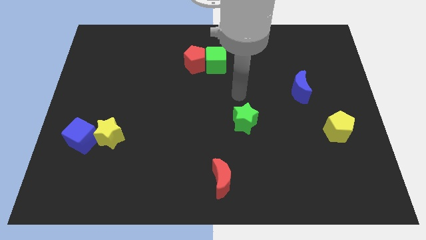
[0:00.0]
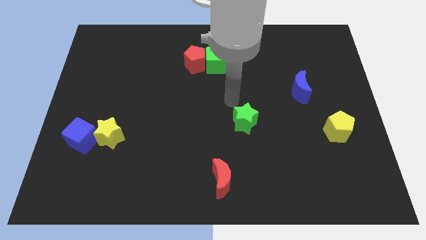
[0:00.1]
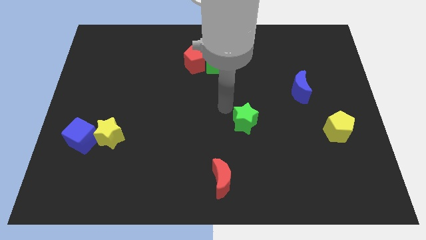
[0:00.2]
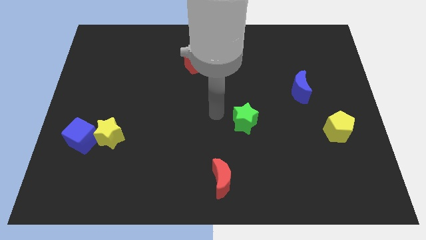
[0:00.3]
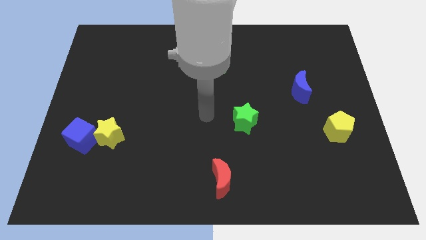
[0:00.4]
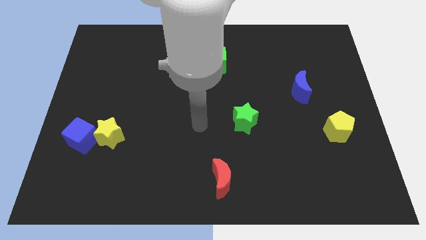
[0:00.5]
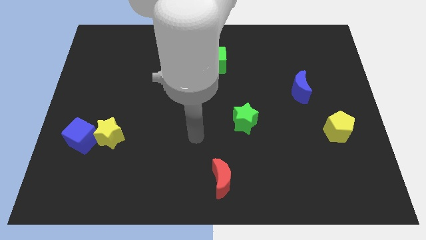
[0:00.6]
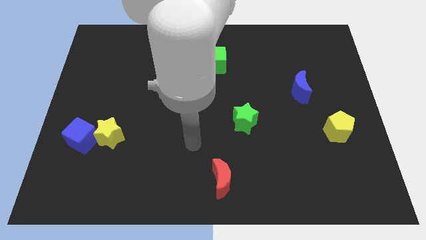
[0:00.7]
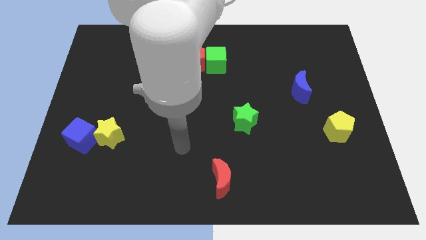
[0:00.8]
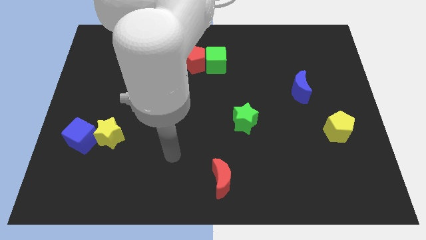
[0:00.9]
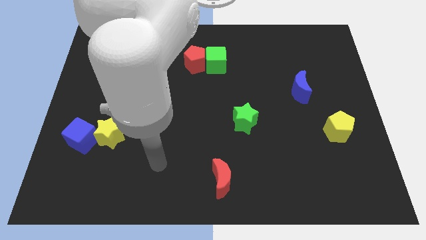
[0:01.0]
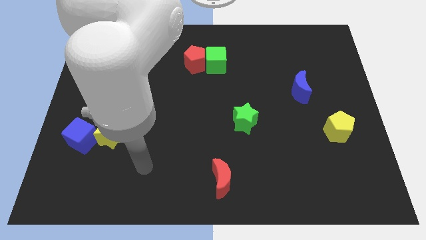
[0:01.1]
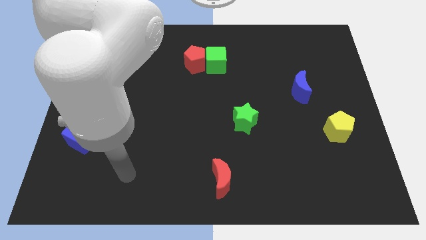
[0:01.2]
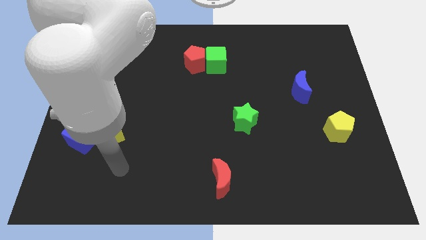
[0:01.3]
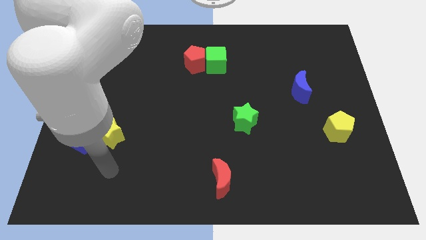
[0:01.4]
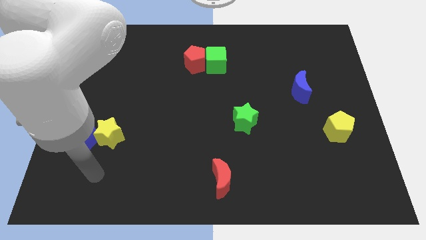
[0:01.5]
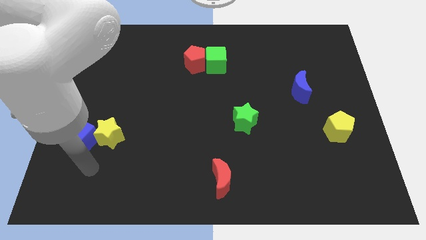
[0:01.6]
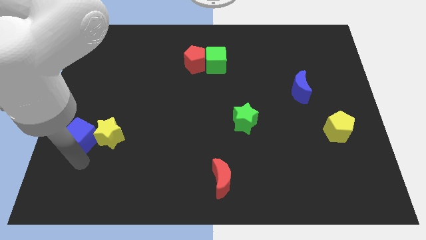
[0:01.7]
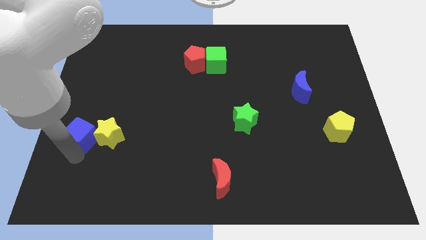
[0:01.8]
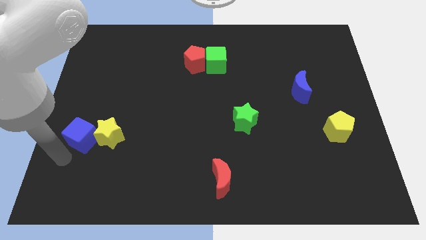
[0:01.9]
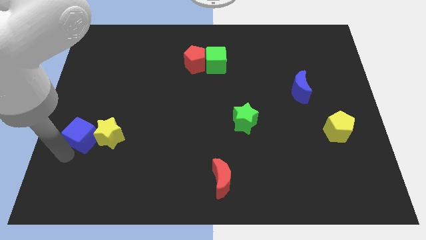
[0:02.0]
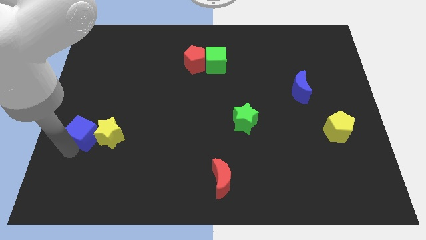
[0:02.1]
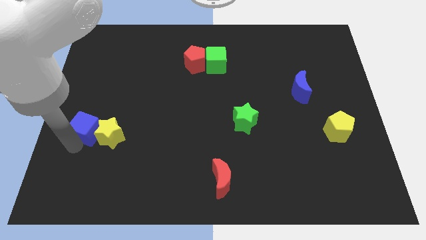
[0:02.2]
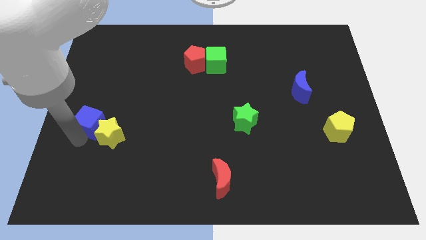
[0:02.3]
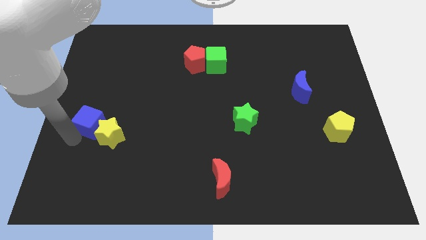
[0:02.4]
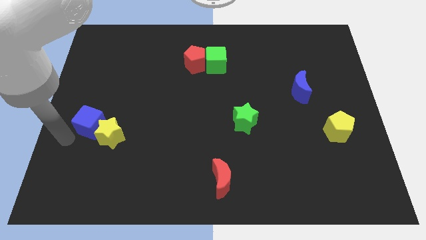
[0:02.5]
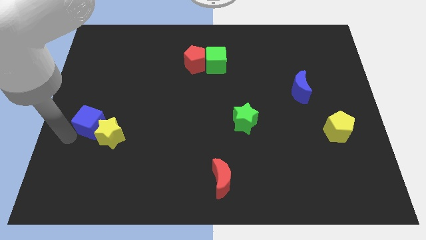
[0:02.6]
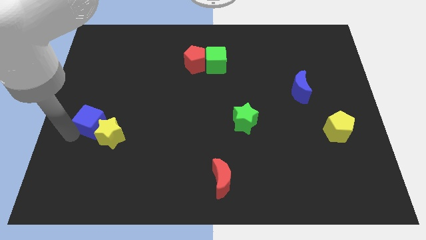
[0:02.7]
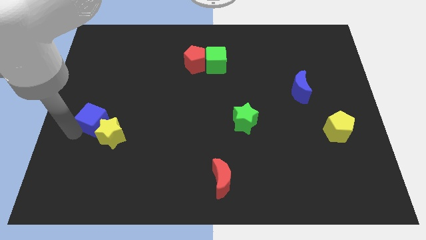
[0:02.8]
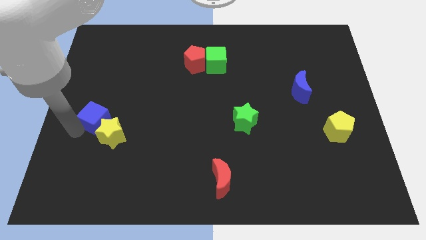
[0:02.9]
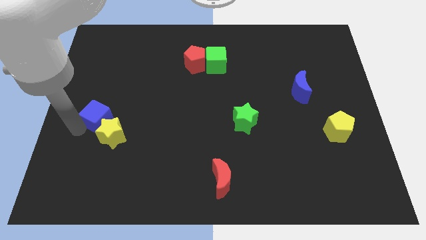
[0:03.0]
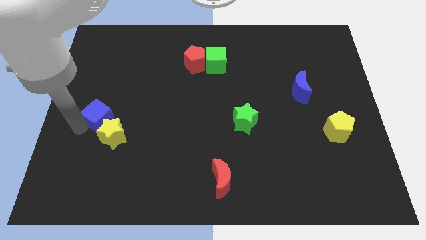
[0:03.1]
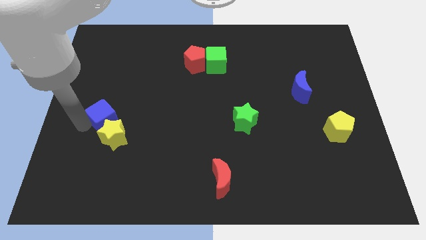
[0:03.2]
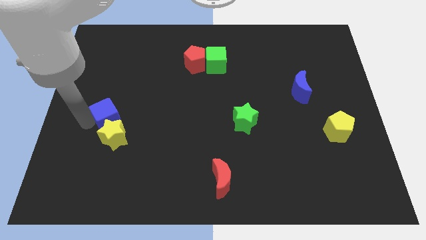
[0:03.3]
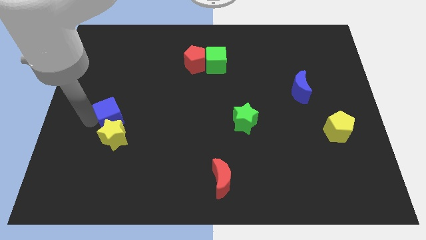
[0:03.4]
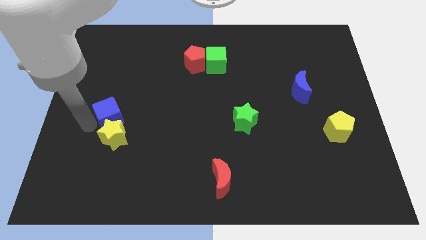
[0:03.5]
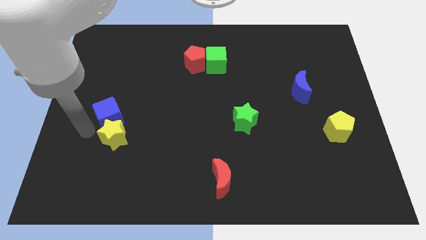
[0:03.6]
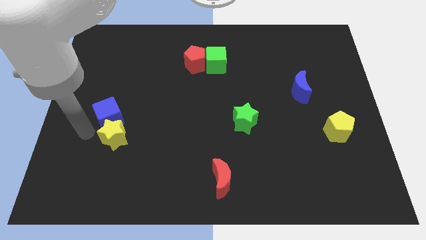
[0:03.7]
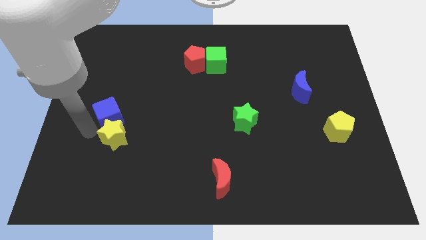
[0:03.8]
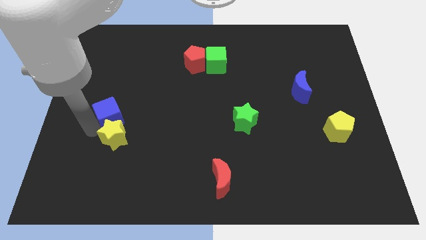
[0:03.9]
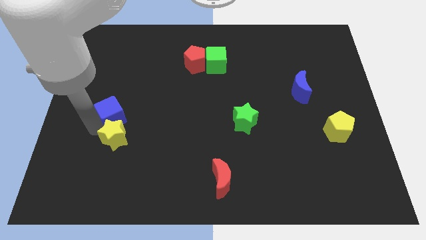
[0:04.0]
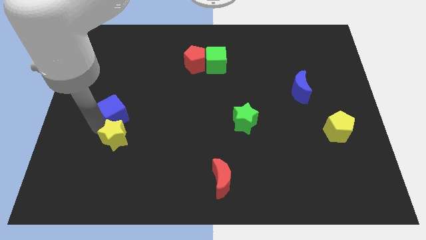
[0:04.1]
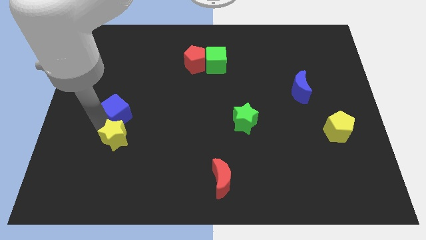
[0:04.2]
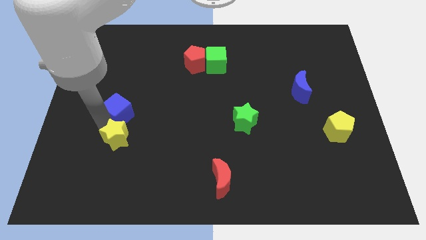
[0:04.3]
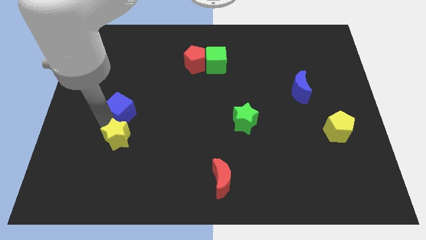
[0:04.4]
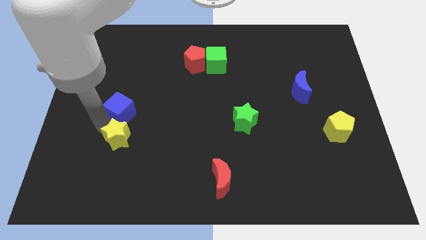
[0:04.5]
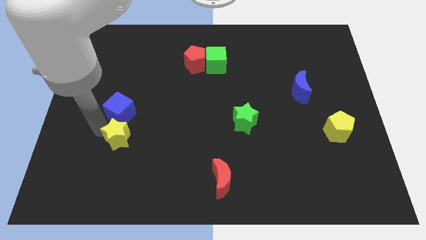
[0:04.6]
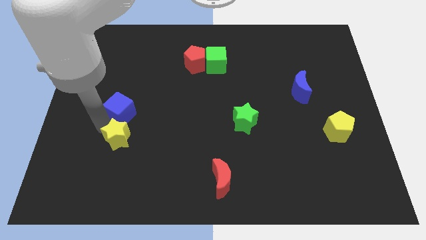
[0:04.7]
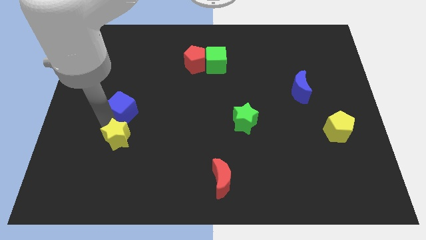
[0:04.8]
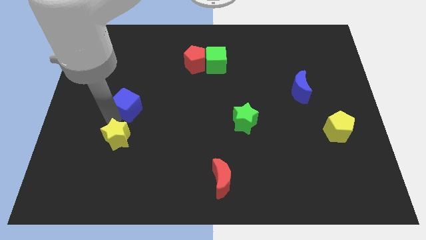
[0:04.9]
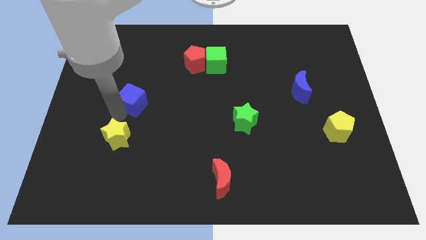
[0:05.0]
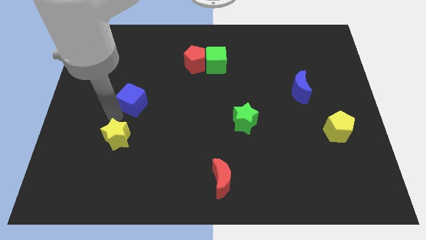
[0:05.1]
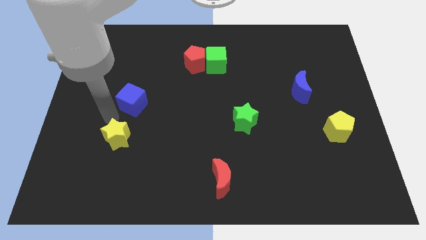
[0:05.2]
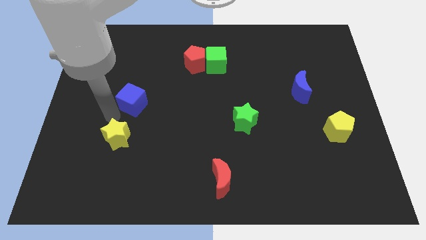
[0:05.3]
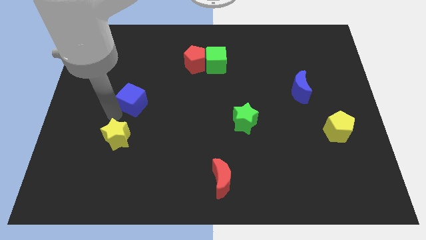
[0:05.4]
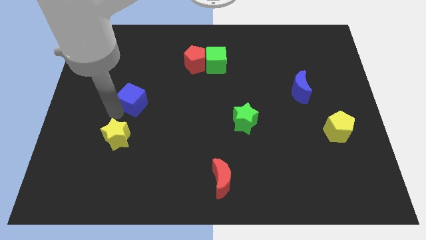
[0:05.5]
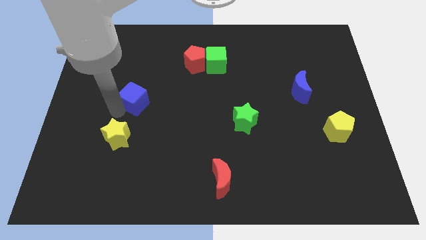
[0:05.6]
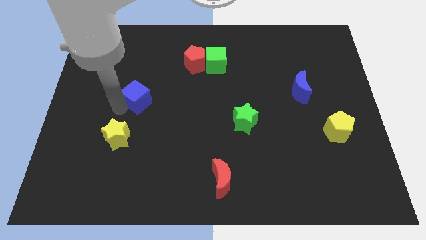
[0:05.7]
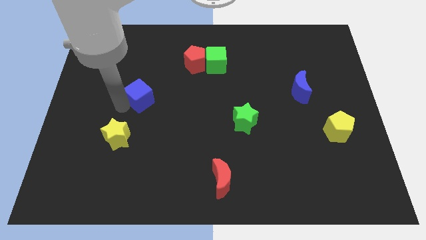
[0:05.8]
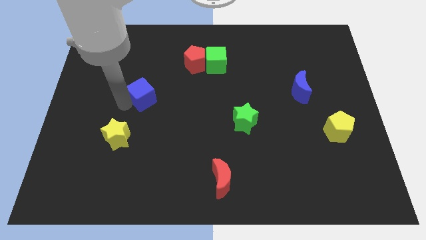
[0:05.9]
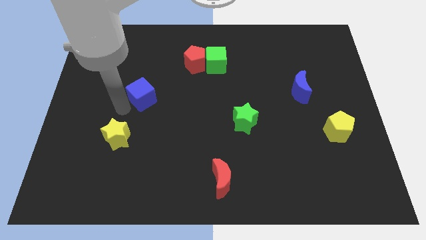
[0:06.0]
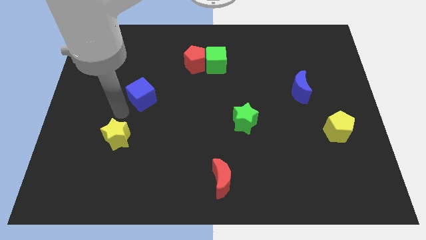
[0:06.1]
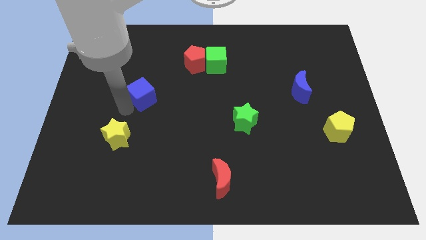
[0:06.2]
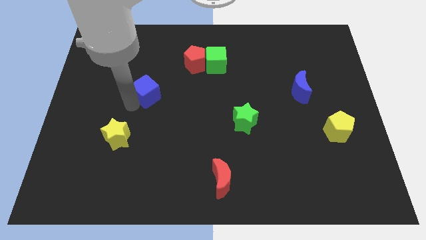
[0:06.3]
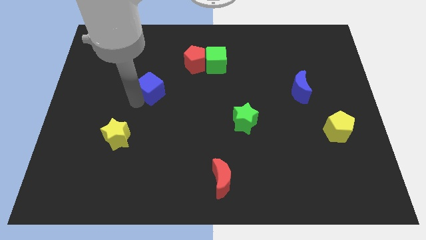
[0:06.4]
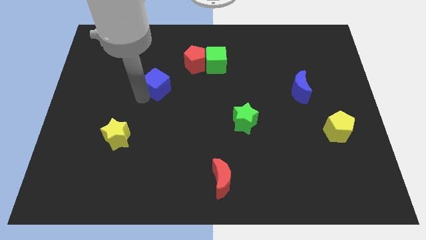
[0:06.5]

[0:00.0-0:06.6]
push the blue cube diagonally down and to the left of the red pentagon

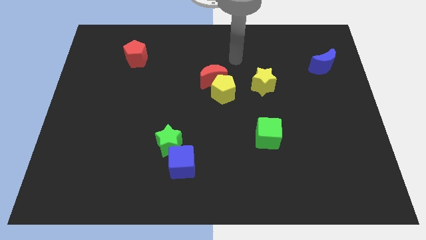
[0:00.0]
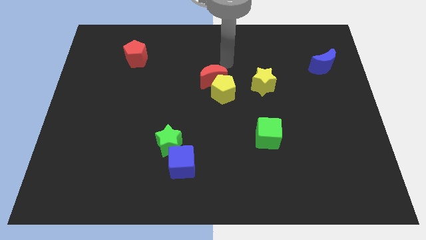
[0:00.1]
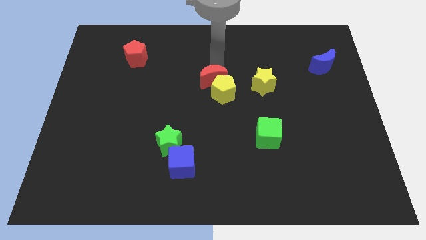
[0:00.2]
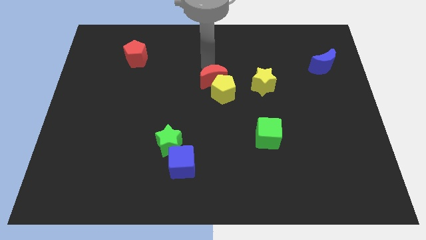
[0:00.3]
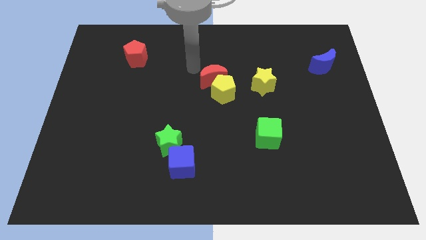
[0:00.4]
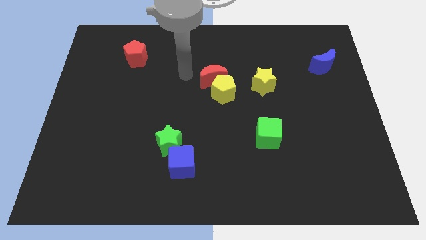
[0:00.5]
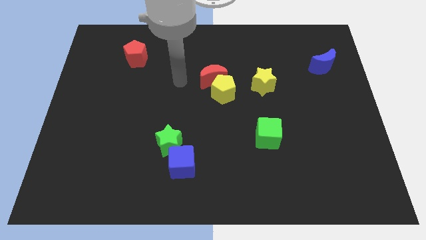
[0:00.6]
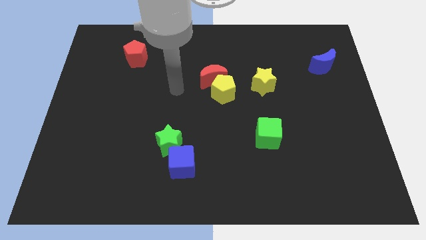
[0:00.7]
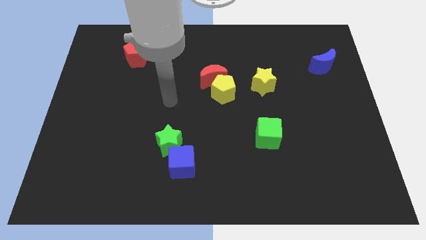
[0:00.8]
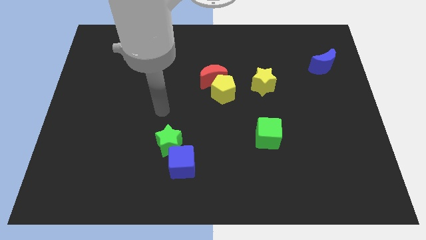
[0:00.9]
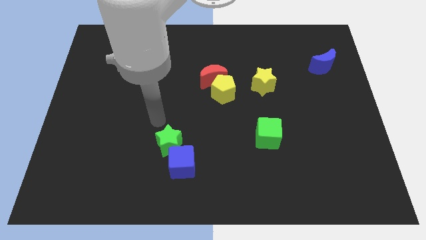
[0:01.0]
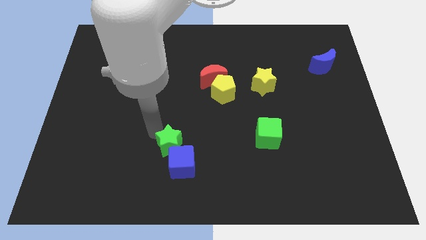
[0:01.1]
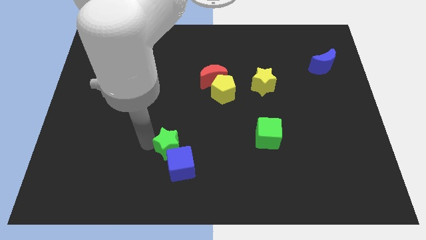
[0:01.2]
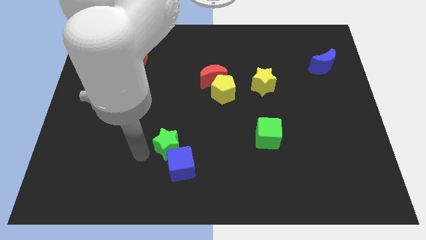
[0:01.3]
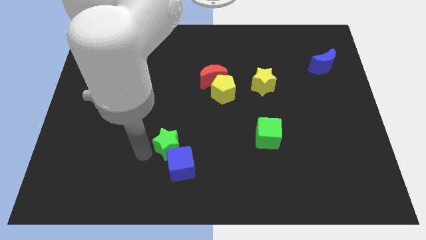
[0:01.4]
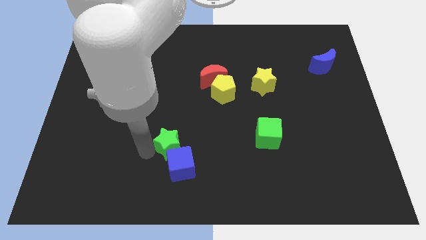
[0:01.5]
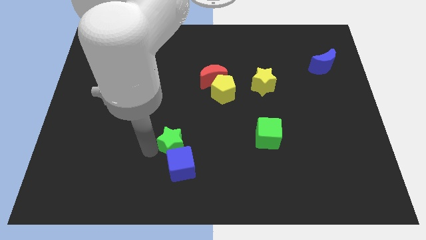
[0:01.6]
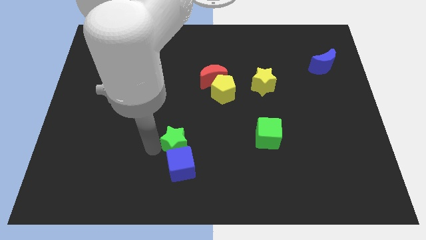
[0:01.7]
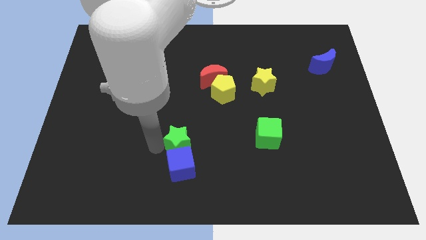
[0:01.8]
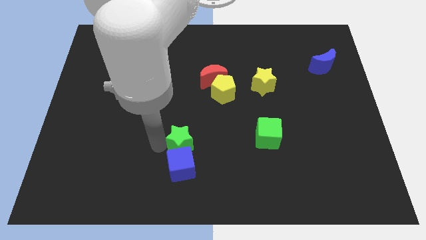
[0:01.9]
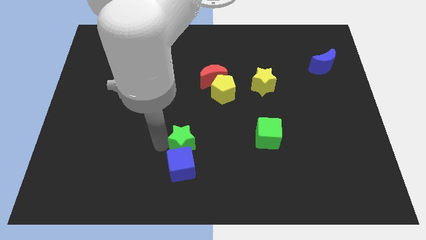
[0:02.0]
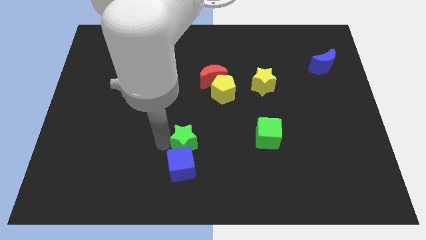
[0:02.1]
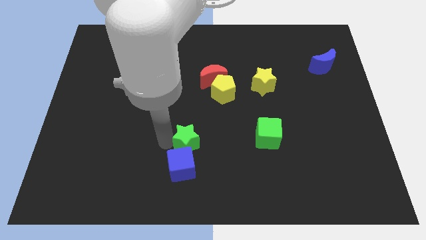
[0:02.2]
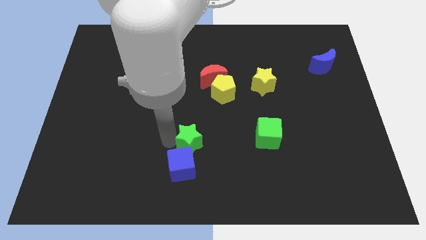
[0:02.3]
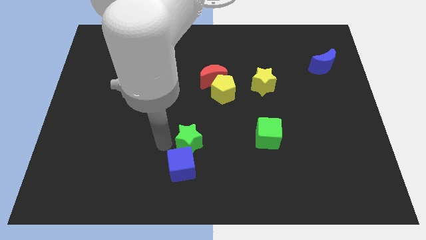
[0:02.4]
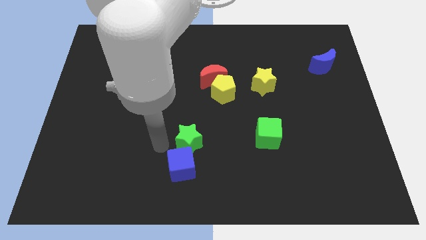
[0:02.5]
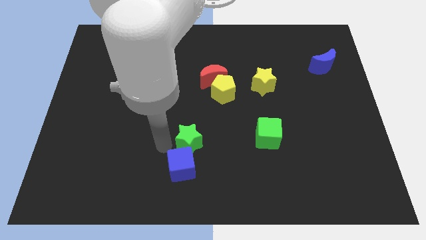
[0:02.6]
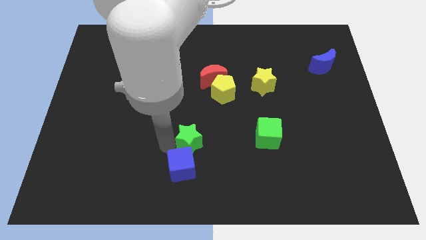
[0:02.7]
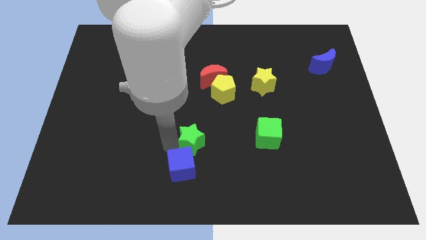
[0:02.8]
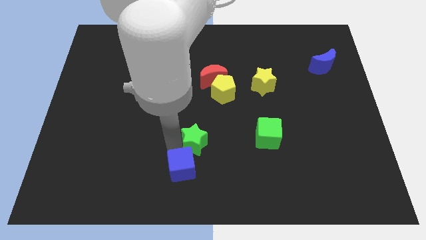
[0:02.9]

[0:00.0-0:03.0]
slide the green star just left of the green cube
